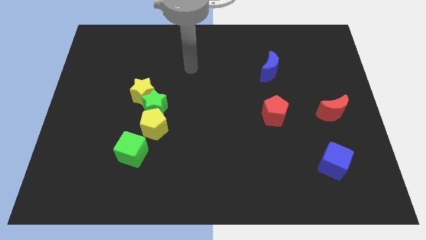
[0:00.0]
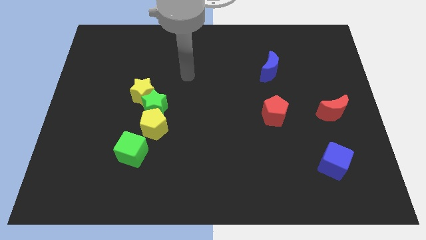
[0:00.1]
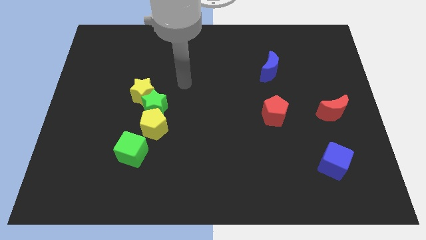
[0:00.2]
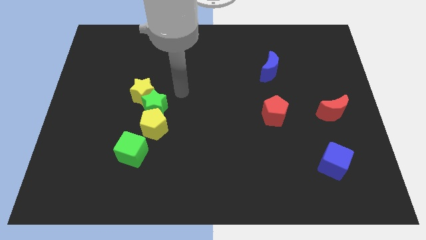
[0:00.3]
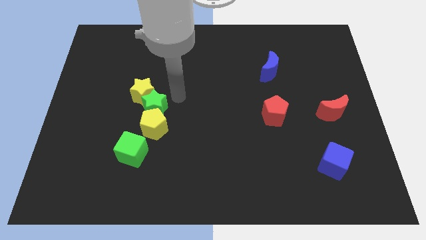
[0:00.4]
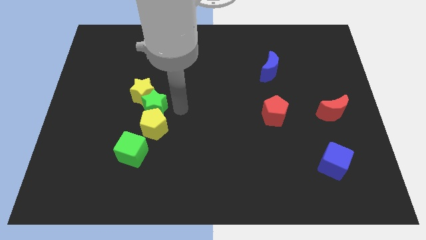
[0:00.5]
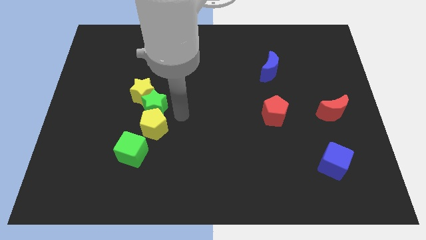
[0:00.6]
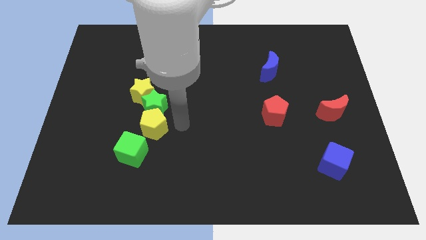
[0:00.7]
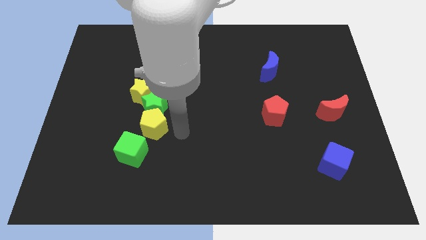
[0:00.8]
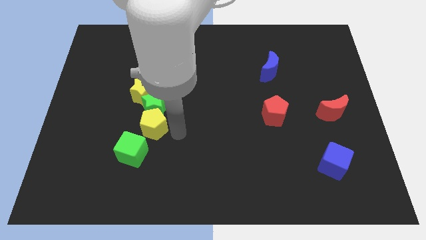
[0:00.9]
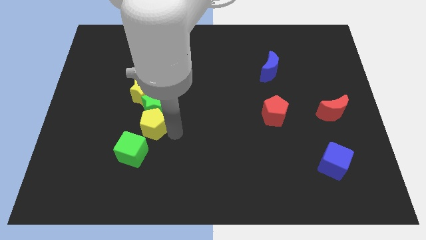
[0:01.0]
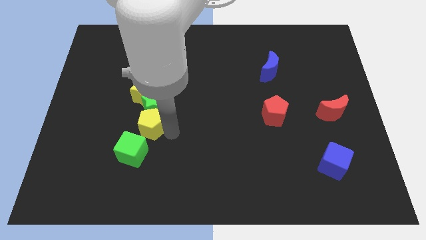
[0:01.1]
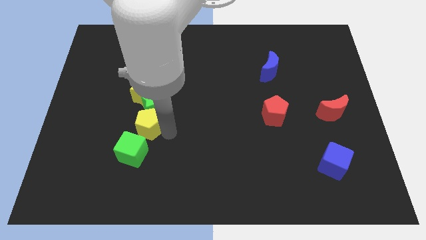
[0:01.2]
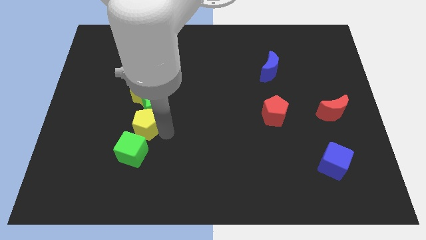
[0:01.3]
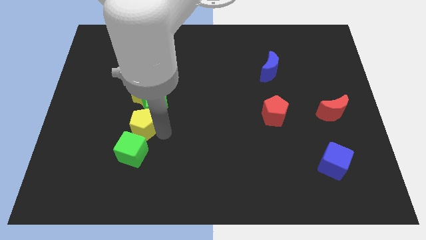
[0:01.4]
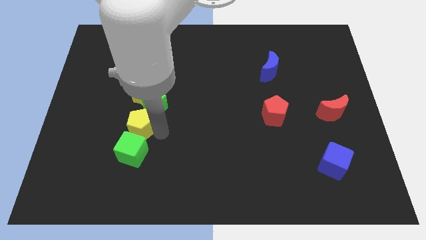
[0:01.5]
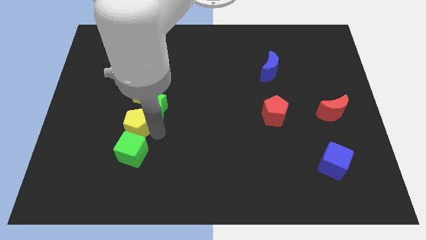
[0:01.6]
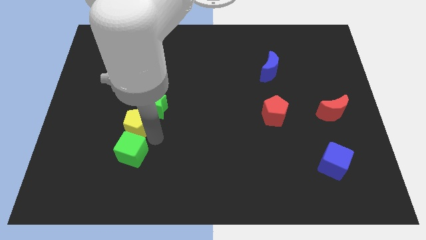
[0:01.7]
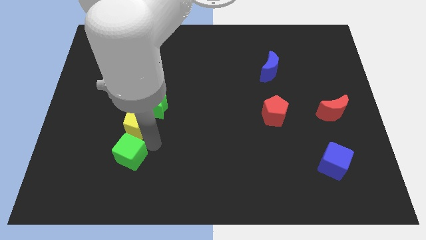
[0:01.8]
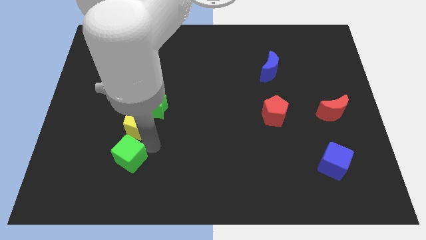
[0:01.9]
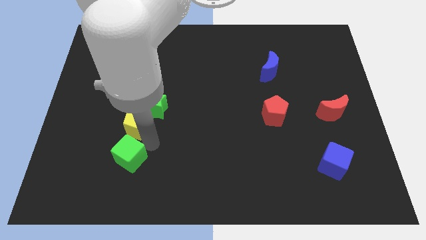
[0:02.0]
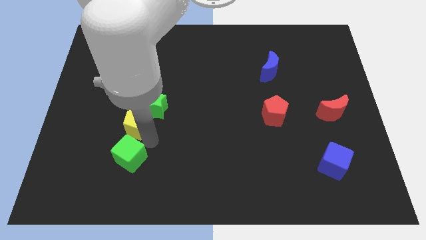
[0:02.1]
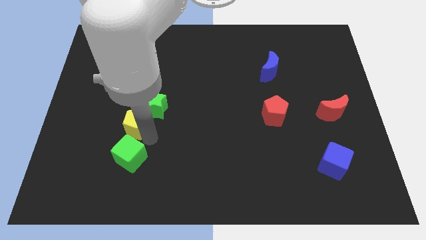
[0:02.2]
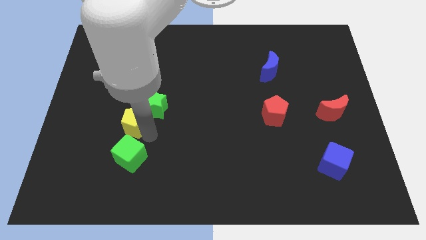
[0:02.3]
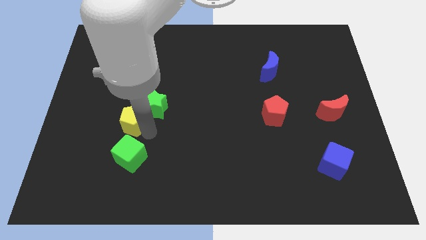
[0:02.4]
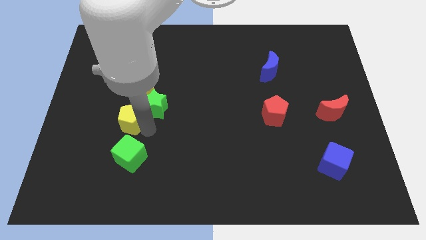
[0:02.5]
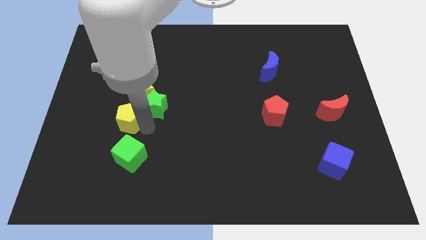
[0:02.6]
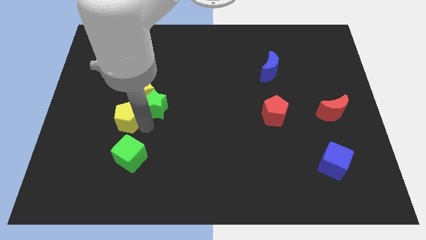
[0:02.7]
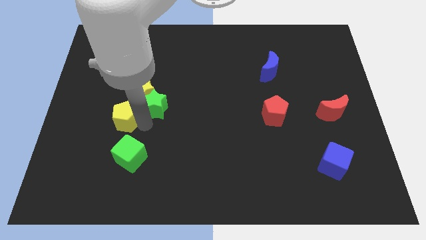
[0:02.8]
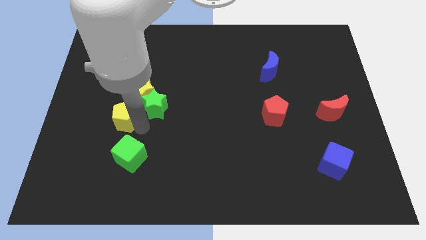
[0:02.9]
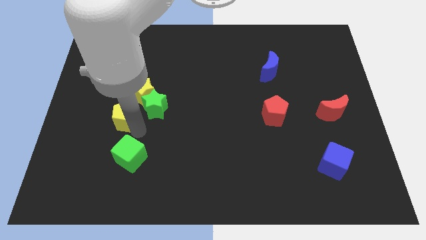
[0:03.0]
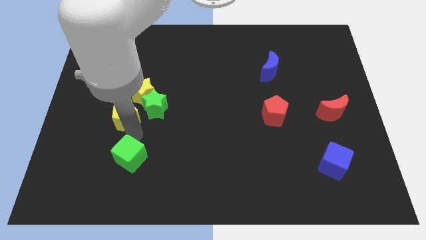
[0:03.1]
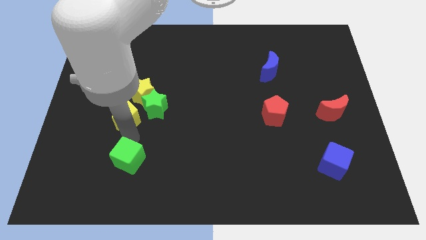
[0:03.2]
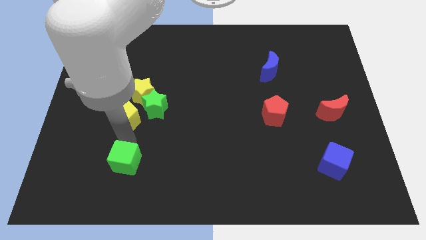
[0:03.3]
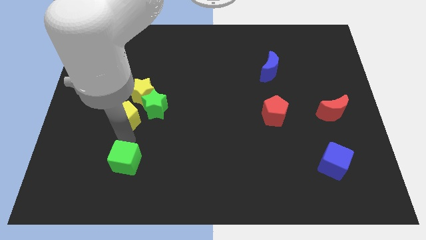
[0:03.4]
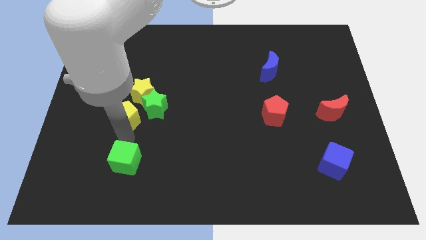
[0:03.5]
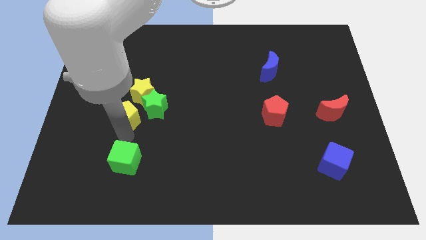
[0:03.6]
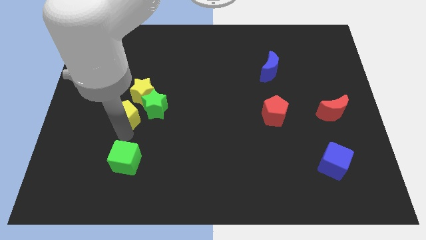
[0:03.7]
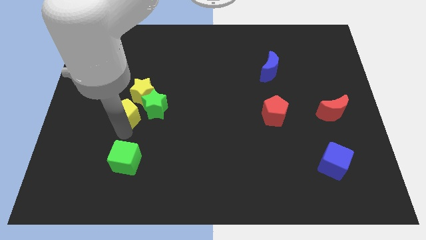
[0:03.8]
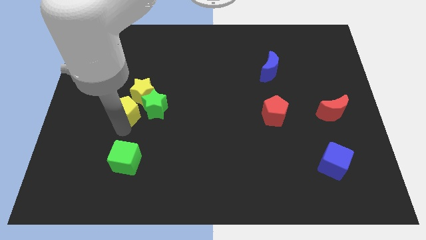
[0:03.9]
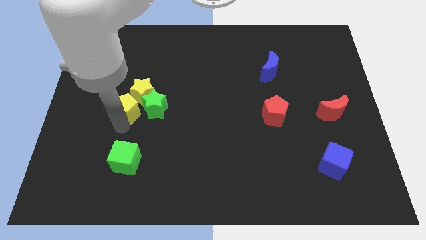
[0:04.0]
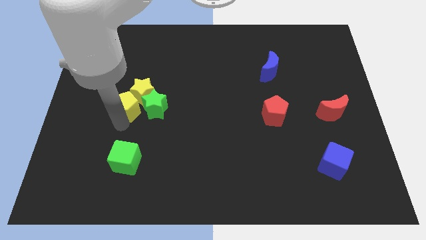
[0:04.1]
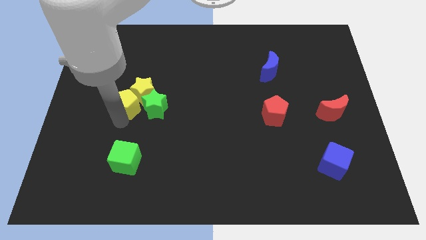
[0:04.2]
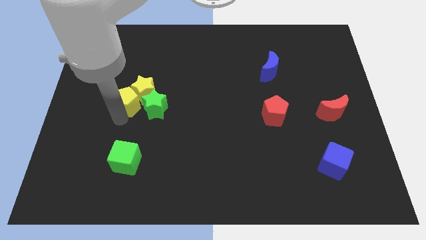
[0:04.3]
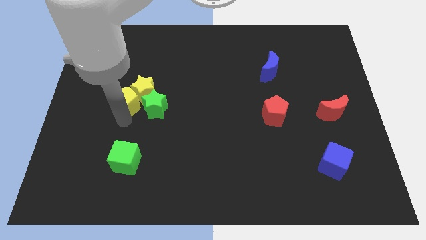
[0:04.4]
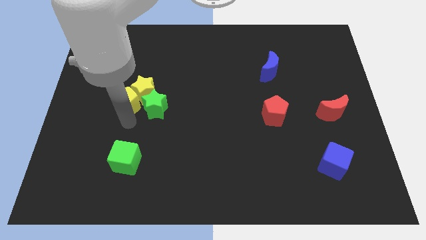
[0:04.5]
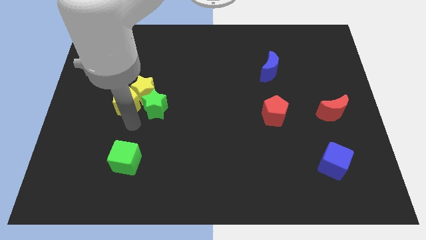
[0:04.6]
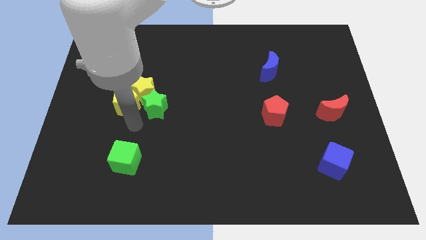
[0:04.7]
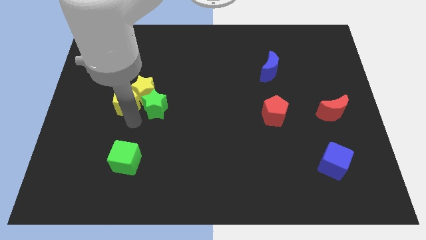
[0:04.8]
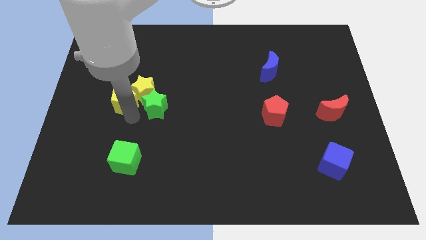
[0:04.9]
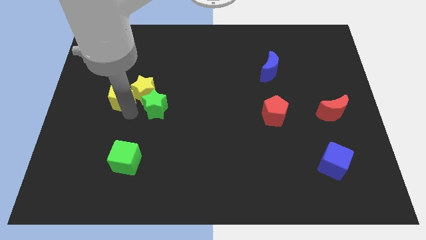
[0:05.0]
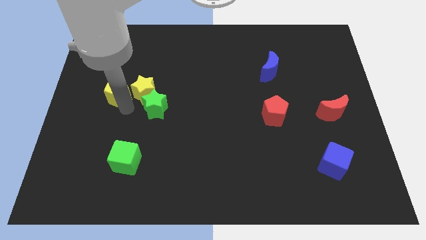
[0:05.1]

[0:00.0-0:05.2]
push the yellow pentagon diagonally up and to the left of the yellow star

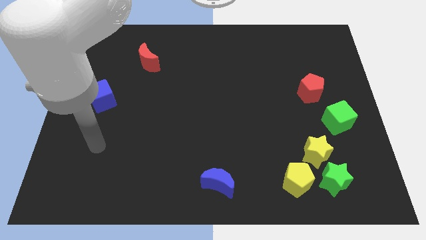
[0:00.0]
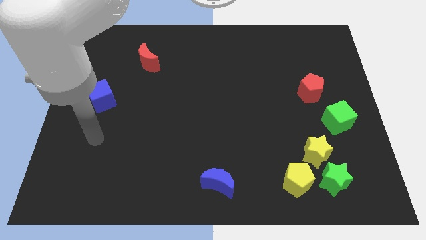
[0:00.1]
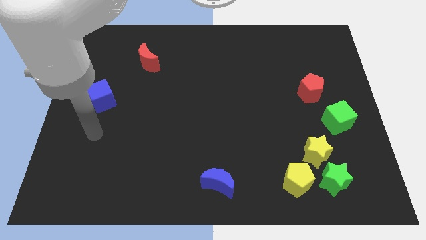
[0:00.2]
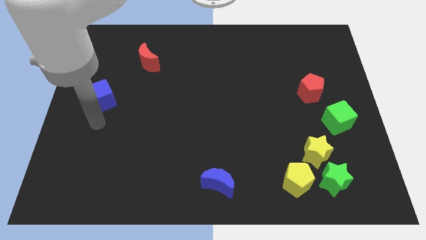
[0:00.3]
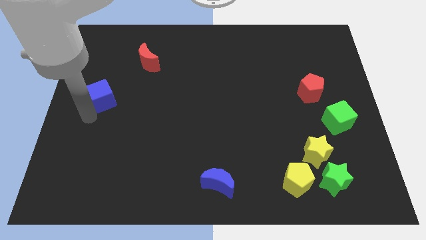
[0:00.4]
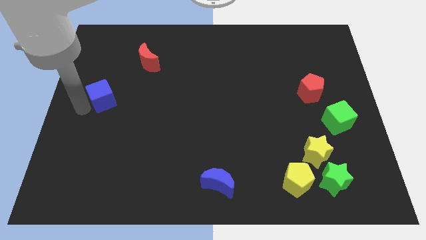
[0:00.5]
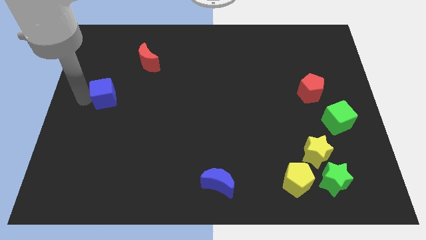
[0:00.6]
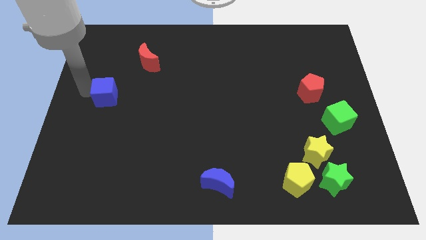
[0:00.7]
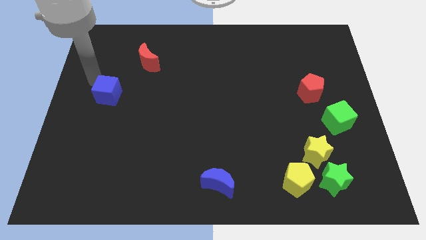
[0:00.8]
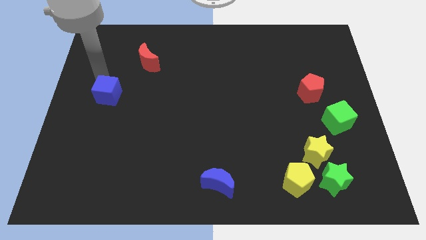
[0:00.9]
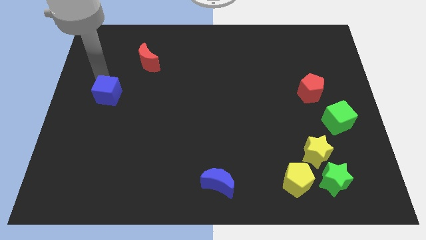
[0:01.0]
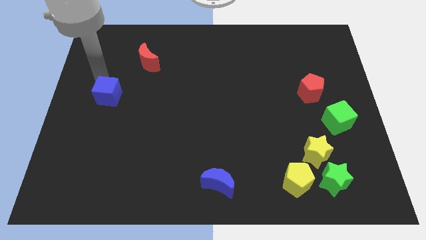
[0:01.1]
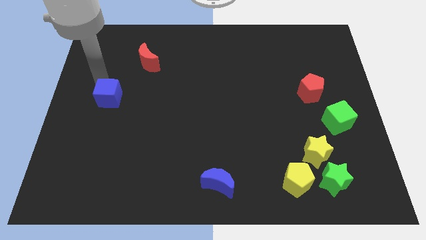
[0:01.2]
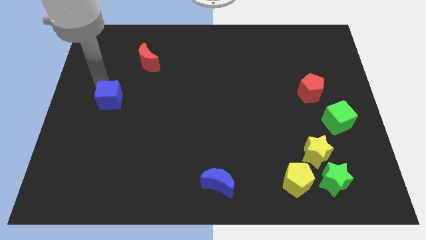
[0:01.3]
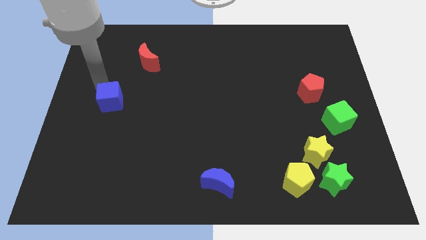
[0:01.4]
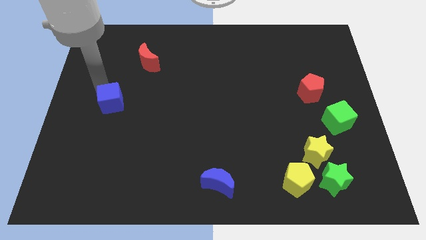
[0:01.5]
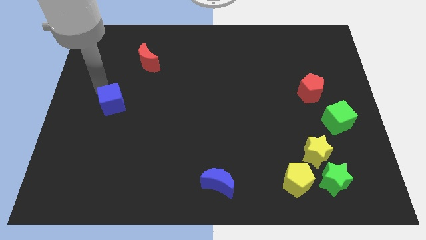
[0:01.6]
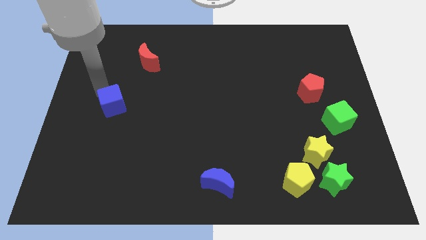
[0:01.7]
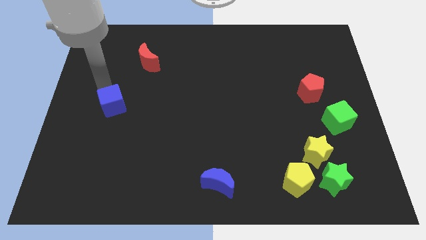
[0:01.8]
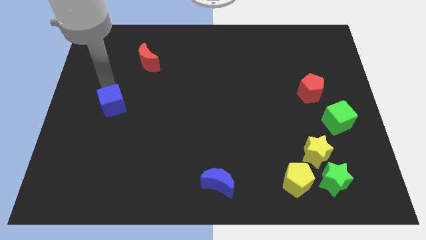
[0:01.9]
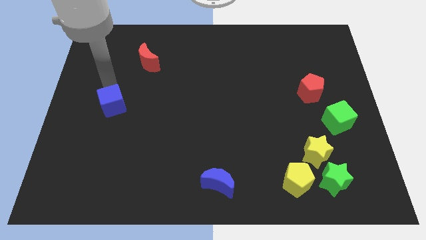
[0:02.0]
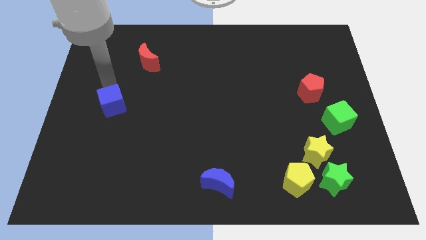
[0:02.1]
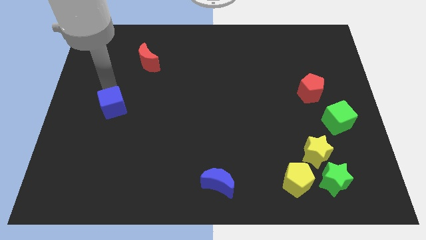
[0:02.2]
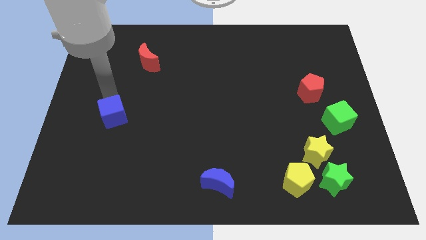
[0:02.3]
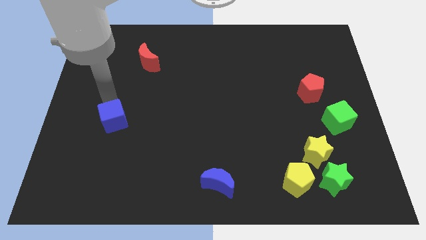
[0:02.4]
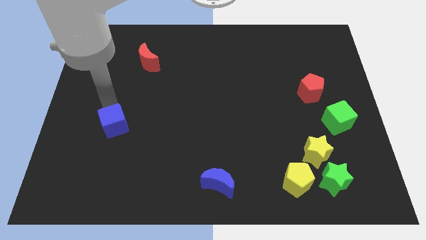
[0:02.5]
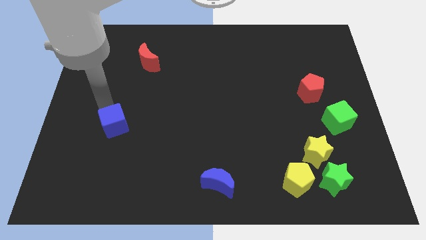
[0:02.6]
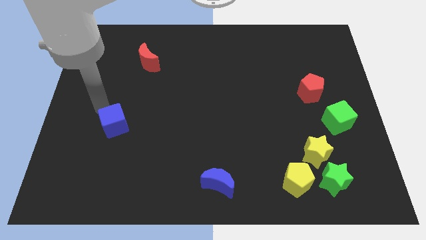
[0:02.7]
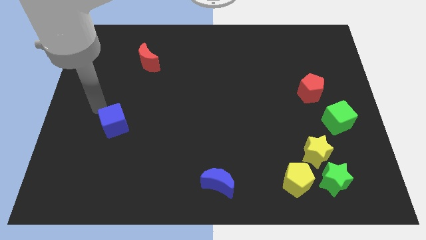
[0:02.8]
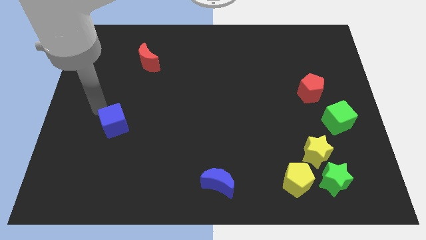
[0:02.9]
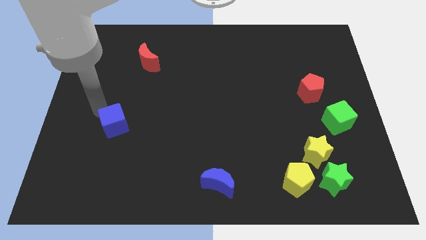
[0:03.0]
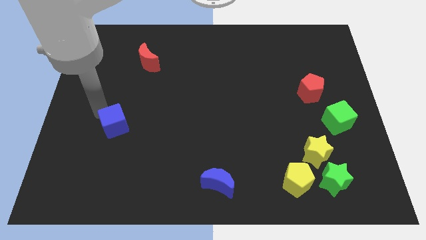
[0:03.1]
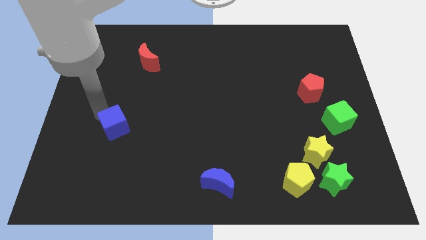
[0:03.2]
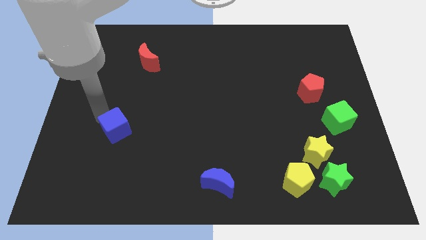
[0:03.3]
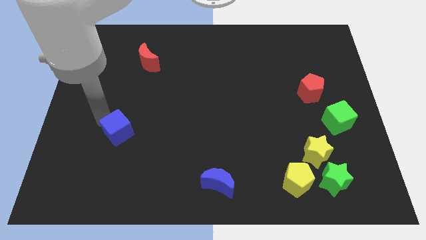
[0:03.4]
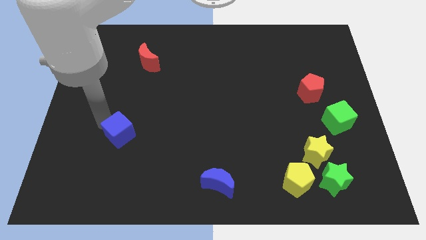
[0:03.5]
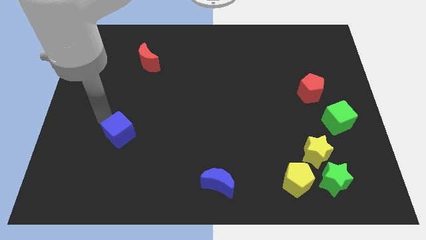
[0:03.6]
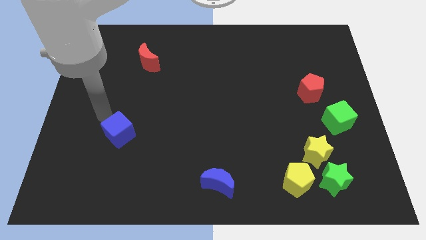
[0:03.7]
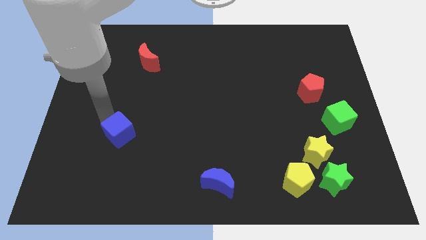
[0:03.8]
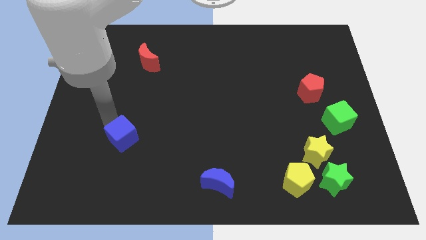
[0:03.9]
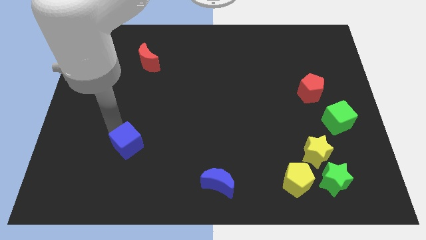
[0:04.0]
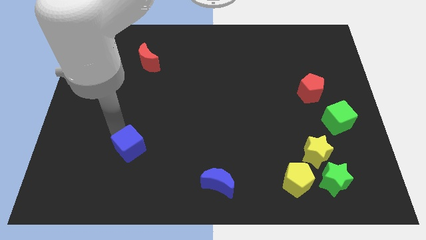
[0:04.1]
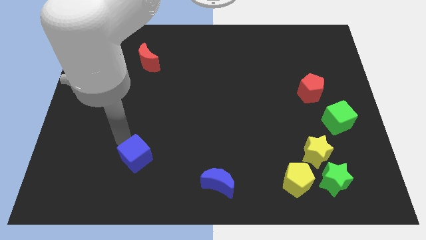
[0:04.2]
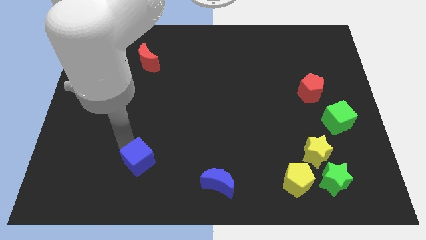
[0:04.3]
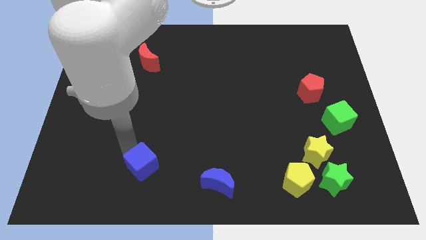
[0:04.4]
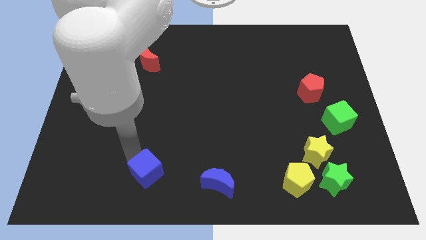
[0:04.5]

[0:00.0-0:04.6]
move the blue cube just left of the blue moon
